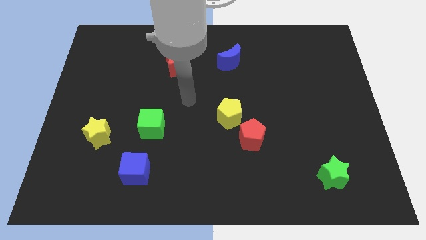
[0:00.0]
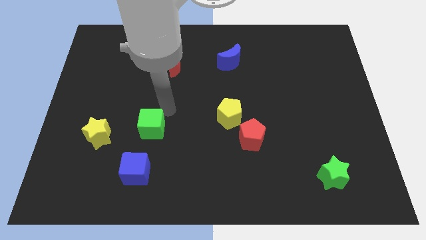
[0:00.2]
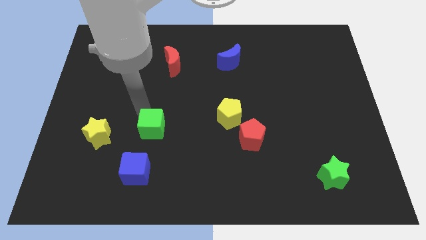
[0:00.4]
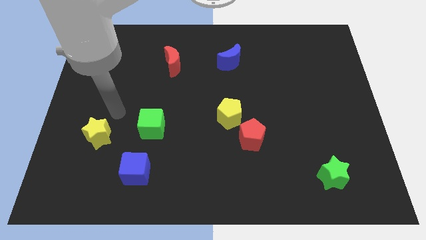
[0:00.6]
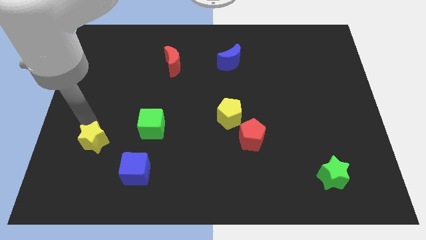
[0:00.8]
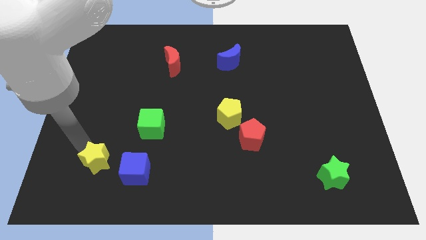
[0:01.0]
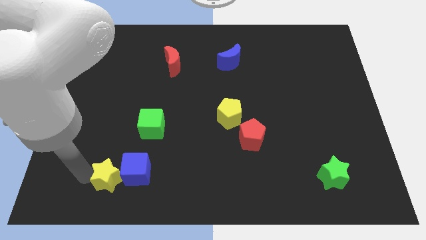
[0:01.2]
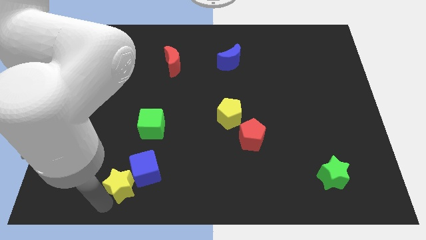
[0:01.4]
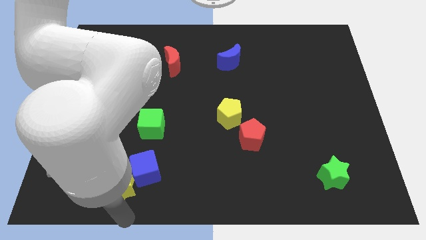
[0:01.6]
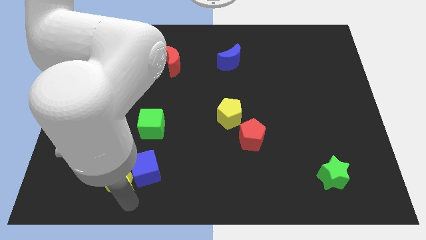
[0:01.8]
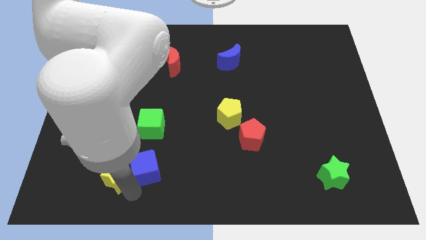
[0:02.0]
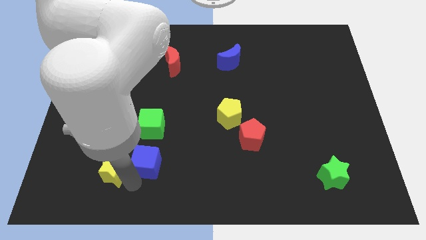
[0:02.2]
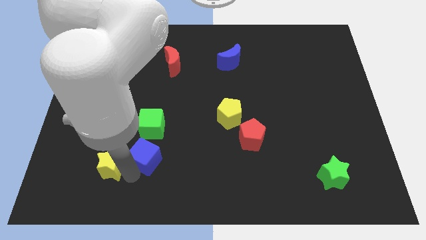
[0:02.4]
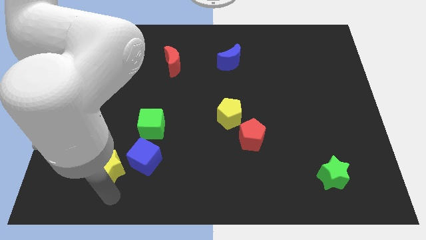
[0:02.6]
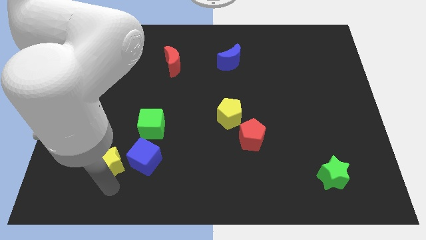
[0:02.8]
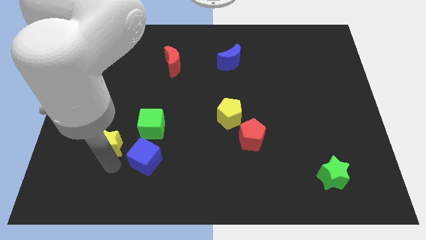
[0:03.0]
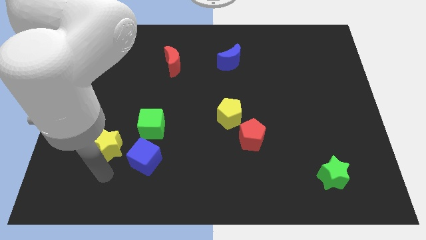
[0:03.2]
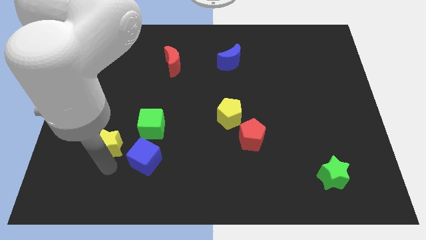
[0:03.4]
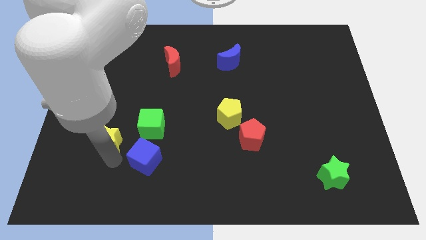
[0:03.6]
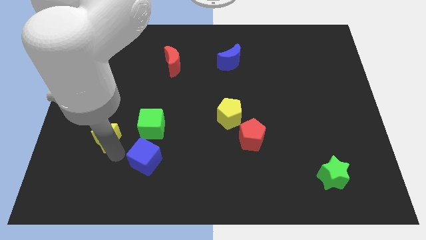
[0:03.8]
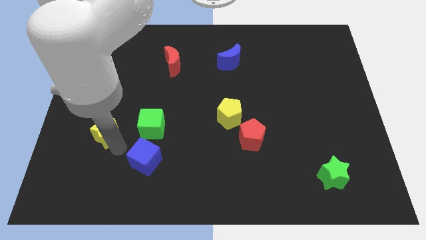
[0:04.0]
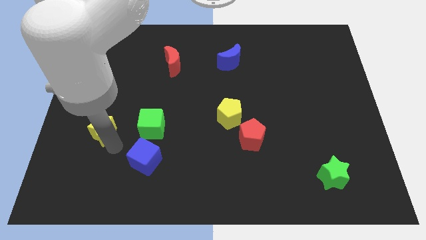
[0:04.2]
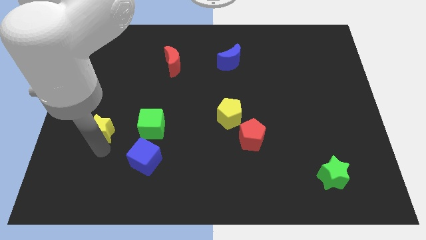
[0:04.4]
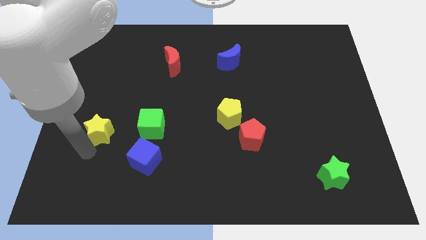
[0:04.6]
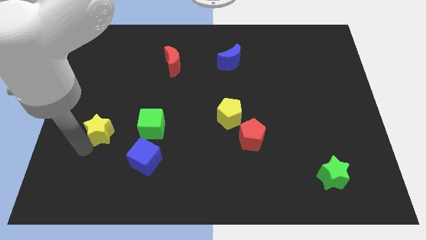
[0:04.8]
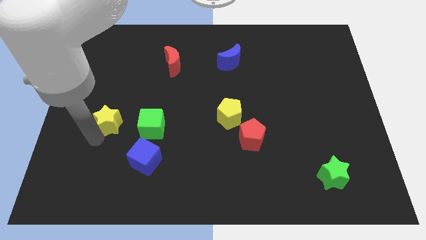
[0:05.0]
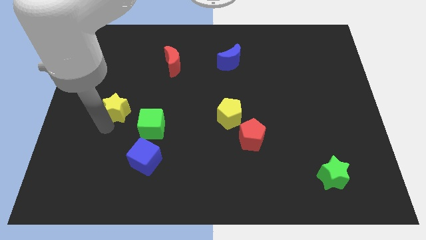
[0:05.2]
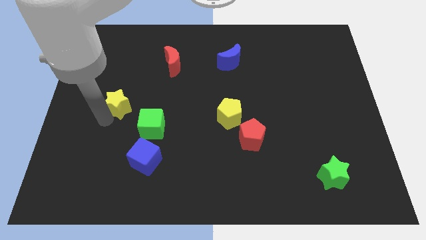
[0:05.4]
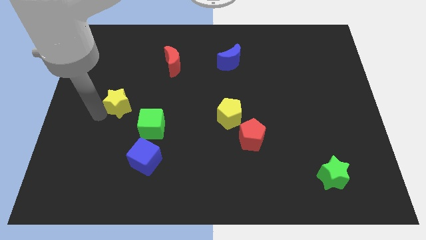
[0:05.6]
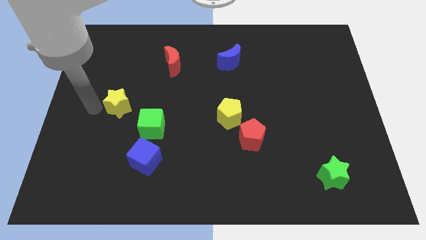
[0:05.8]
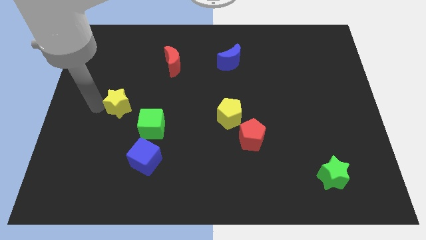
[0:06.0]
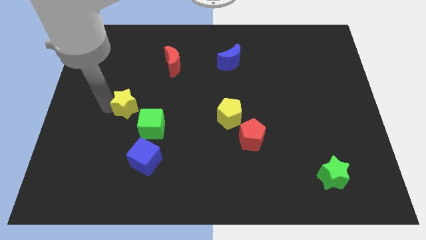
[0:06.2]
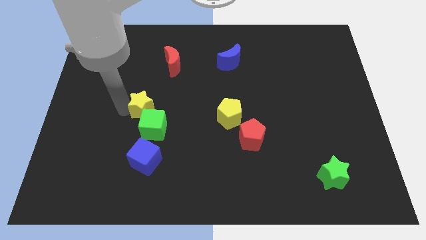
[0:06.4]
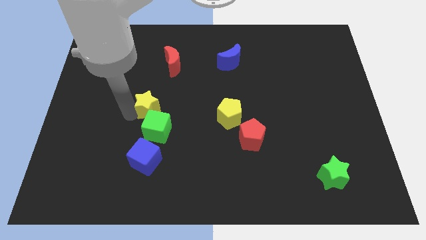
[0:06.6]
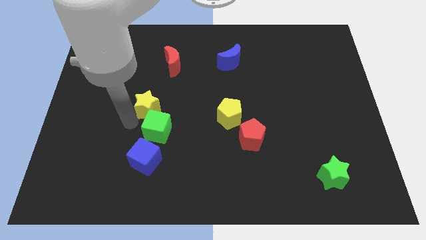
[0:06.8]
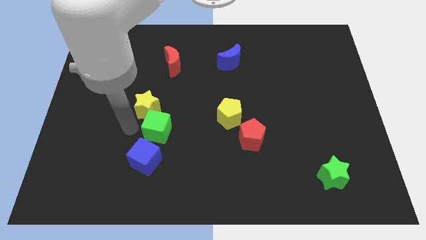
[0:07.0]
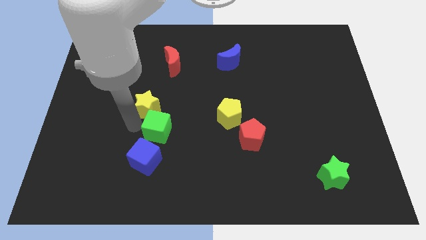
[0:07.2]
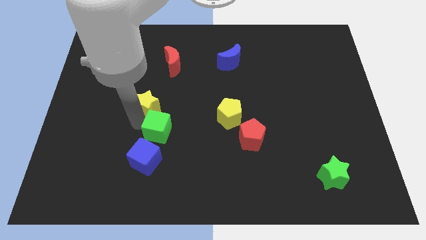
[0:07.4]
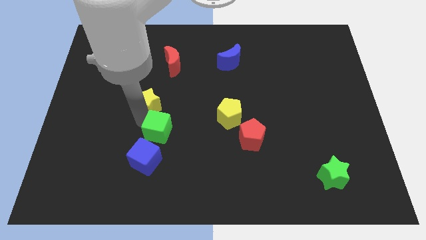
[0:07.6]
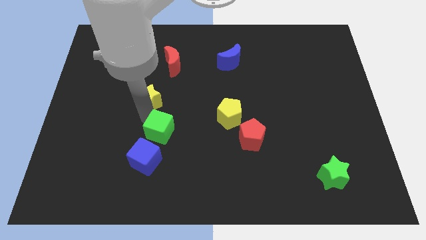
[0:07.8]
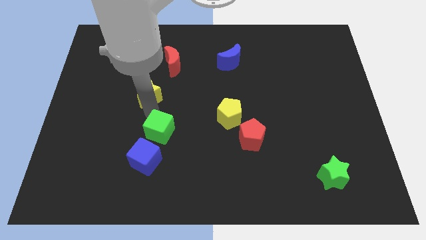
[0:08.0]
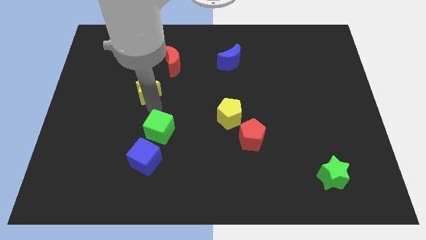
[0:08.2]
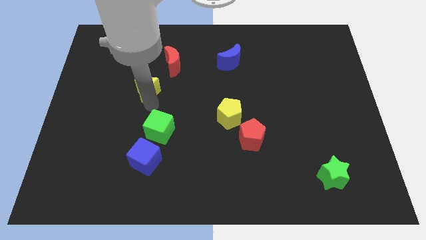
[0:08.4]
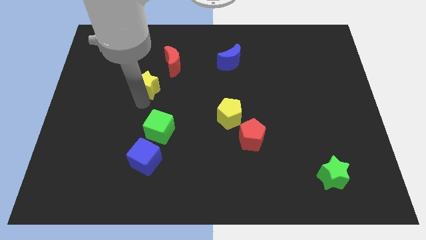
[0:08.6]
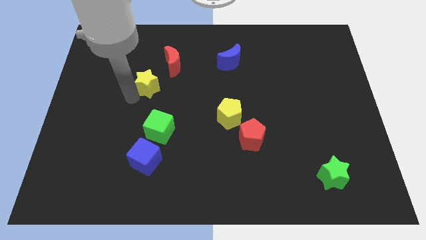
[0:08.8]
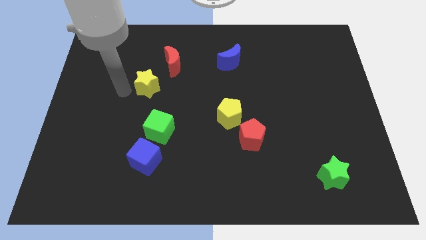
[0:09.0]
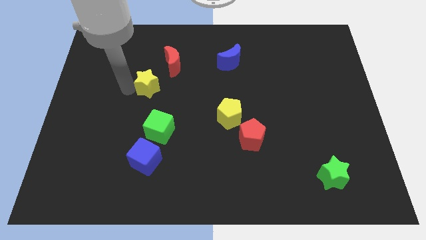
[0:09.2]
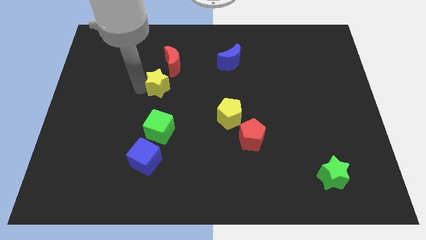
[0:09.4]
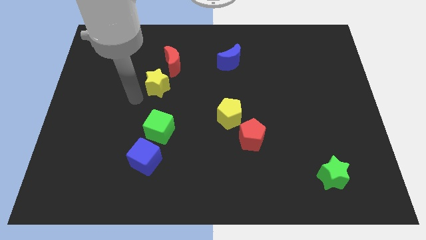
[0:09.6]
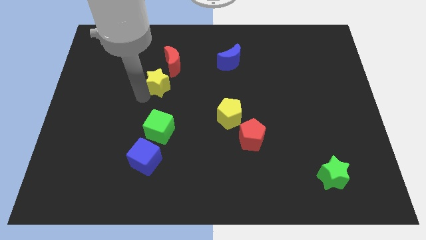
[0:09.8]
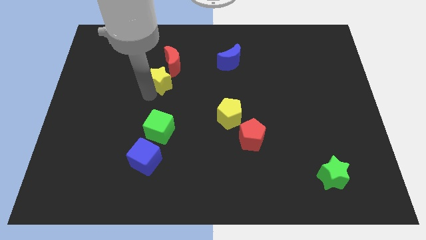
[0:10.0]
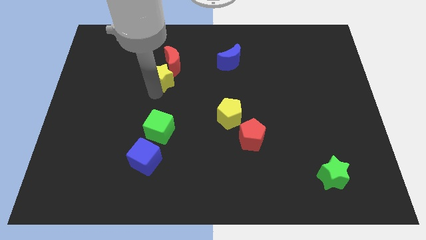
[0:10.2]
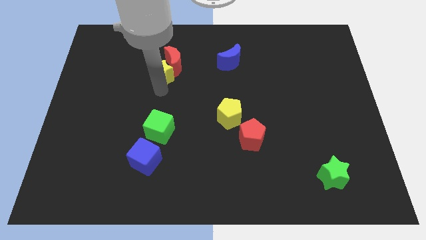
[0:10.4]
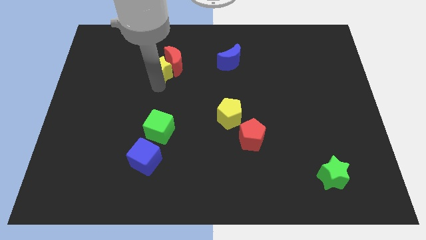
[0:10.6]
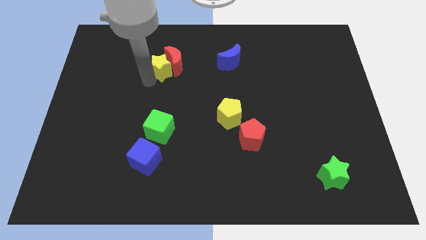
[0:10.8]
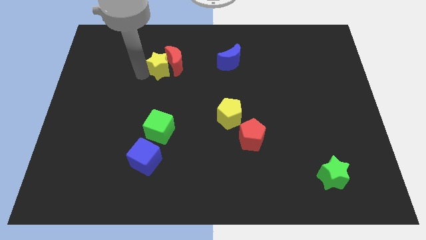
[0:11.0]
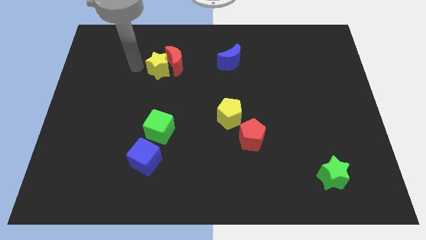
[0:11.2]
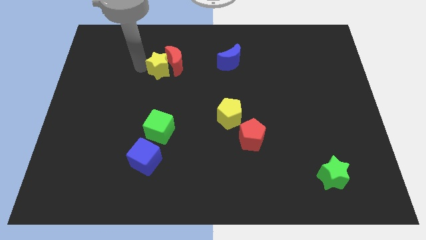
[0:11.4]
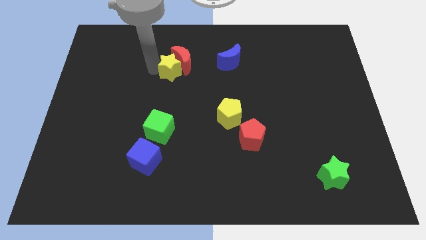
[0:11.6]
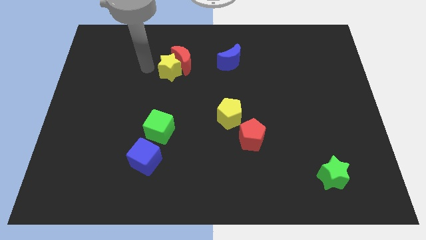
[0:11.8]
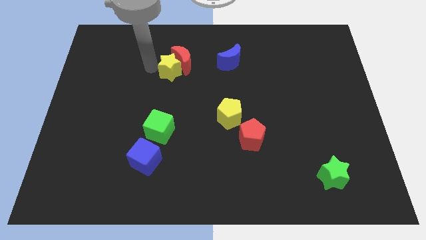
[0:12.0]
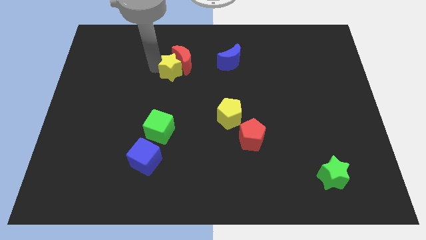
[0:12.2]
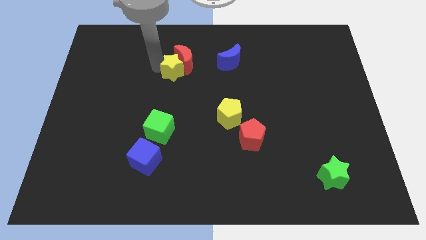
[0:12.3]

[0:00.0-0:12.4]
put the yellow star just left of the blue moon

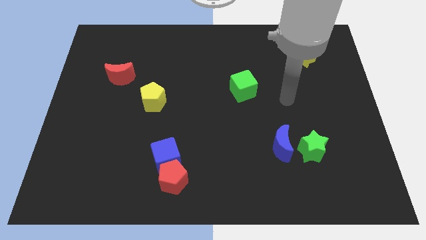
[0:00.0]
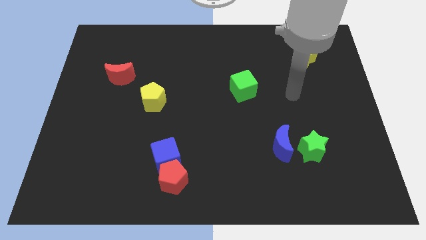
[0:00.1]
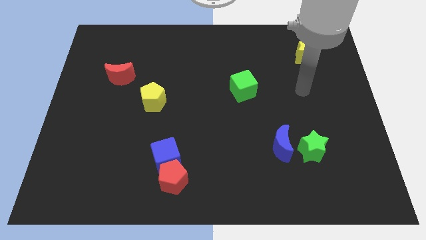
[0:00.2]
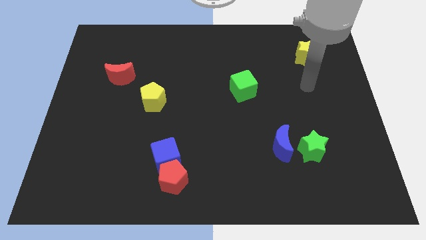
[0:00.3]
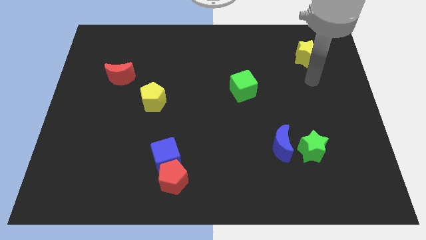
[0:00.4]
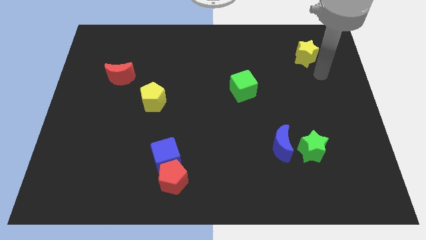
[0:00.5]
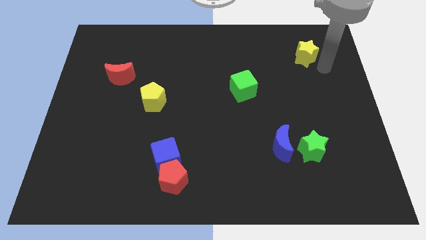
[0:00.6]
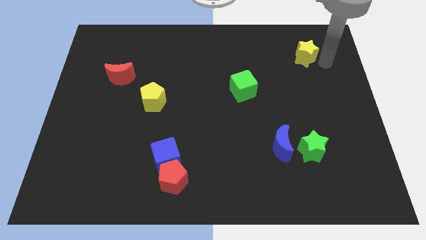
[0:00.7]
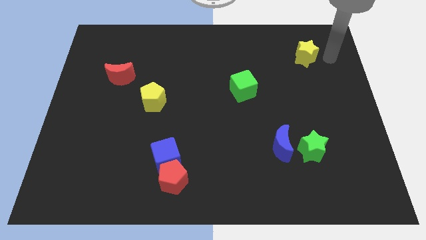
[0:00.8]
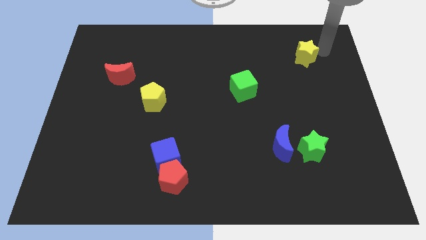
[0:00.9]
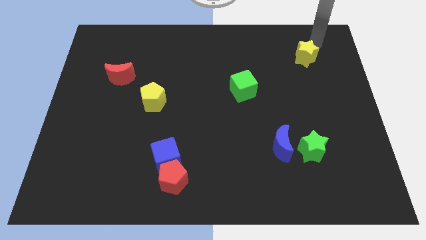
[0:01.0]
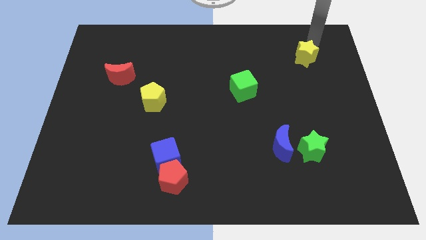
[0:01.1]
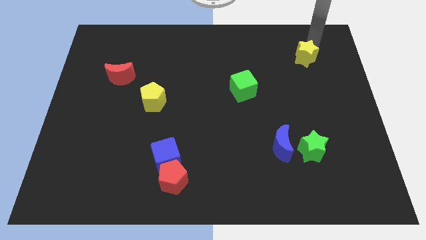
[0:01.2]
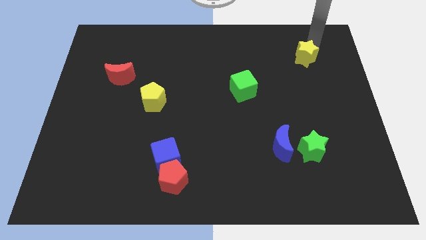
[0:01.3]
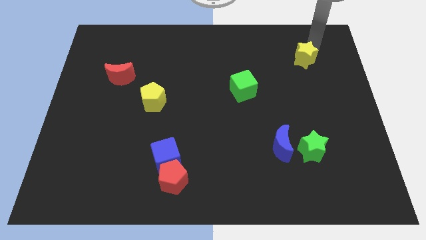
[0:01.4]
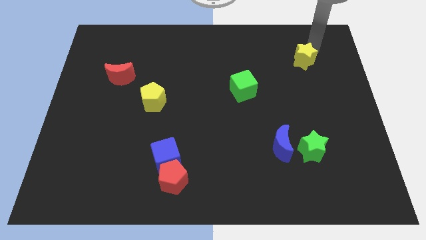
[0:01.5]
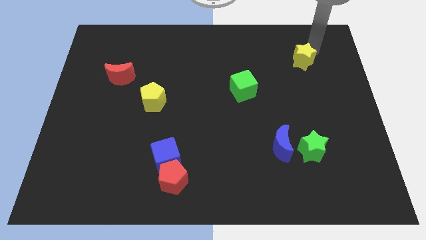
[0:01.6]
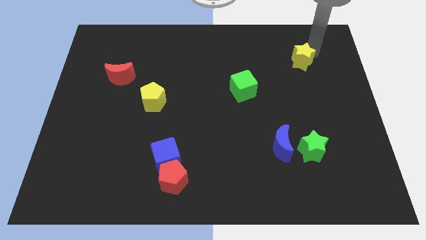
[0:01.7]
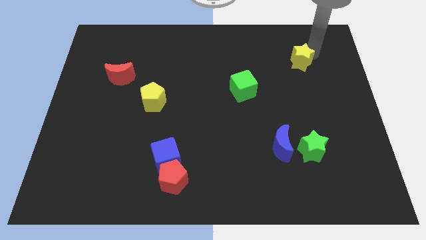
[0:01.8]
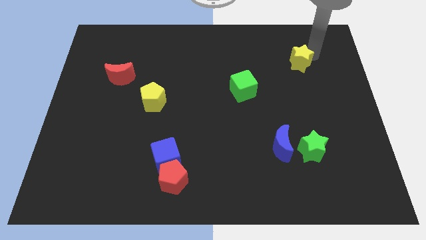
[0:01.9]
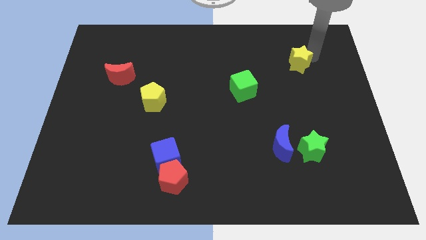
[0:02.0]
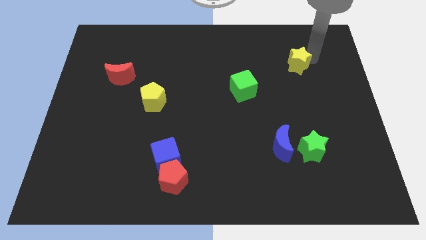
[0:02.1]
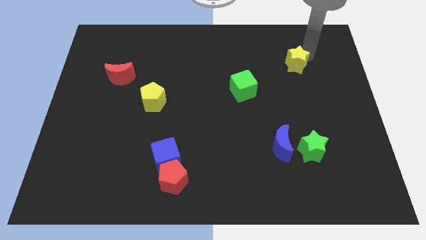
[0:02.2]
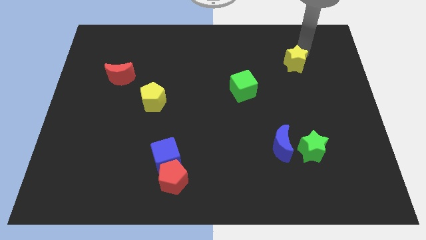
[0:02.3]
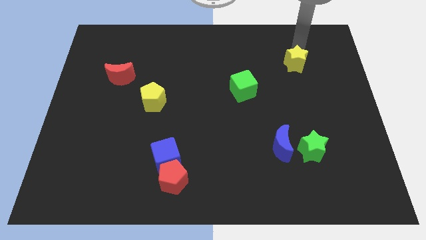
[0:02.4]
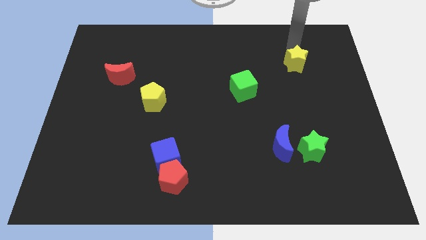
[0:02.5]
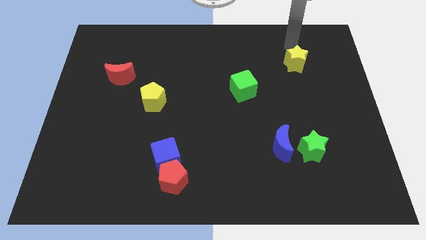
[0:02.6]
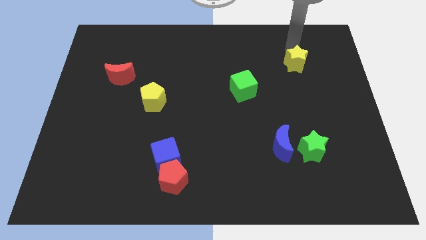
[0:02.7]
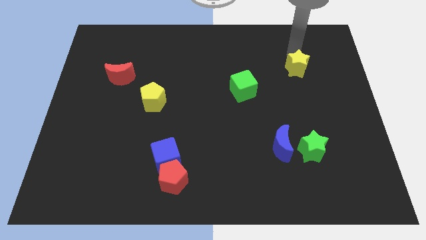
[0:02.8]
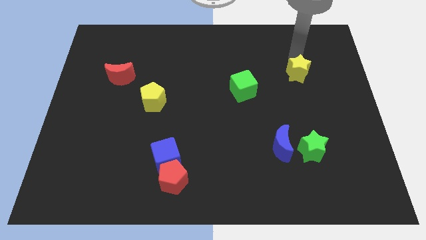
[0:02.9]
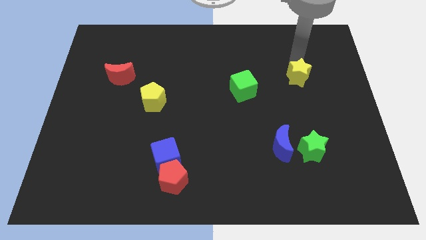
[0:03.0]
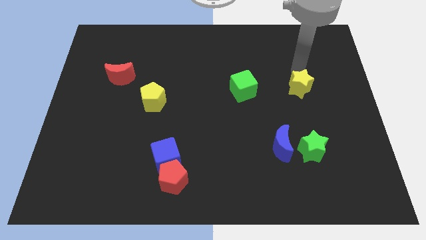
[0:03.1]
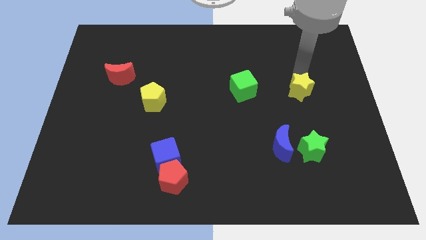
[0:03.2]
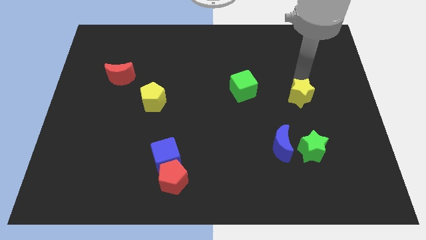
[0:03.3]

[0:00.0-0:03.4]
put the yellow star to the top of the green star
